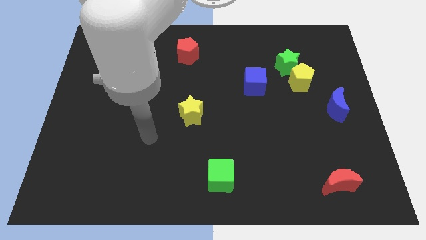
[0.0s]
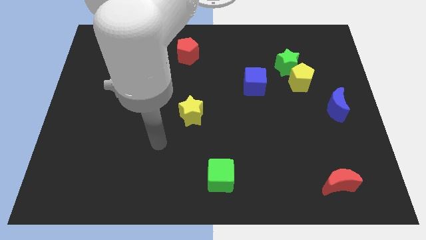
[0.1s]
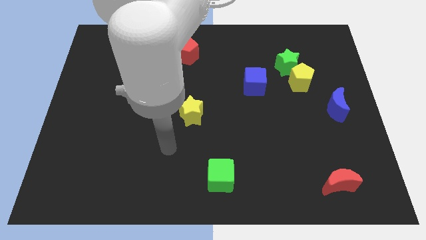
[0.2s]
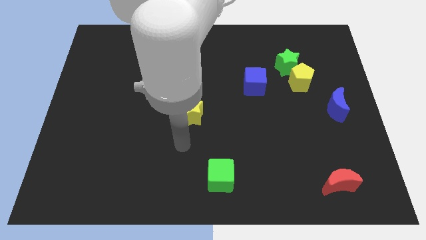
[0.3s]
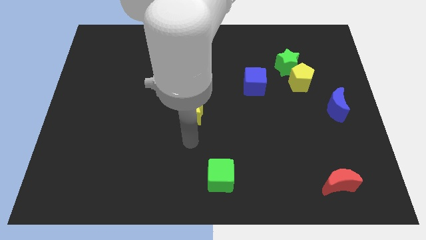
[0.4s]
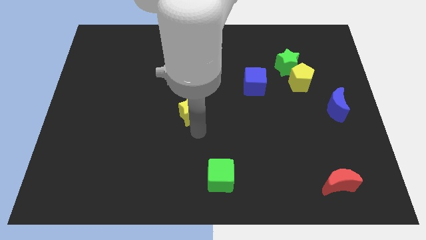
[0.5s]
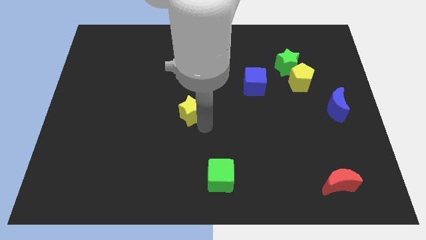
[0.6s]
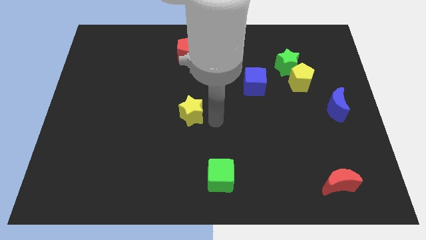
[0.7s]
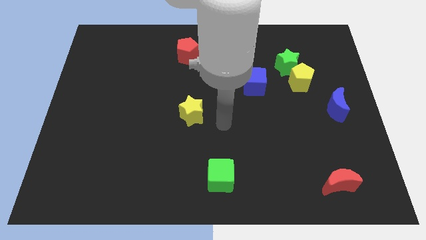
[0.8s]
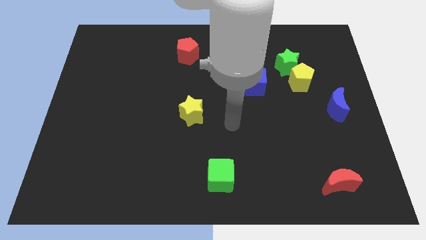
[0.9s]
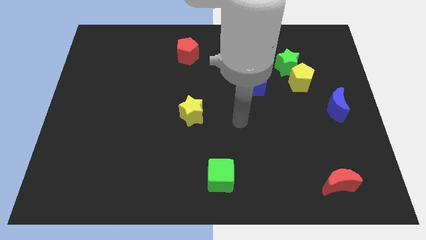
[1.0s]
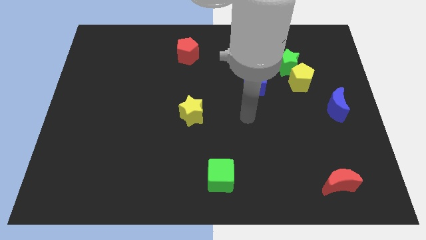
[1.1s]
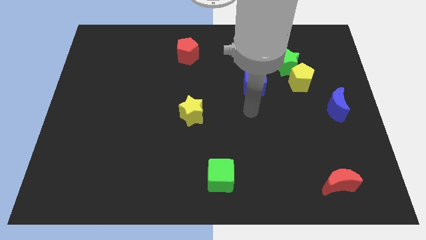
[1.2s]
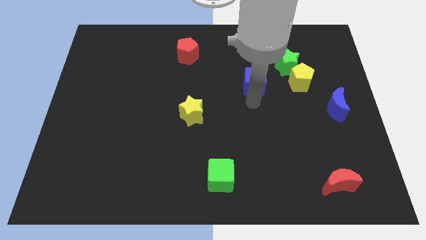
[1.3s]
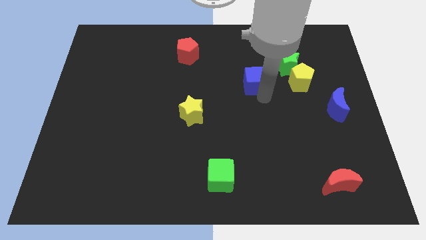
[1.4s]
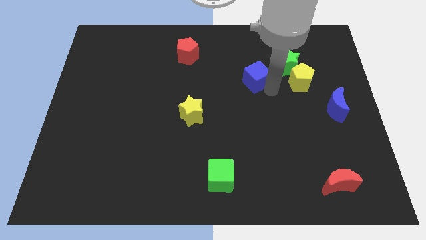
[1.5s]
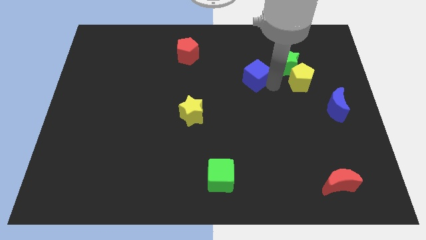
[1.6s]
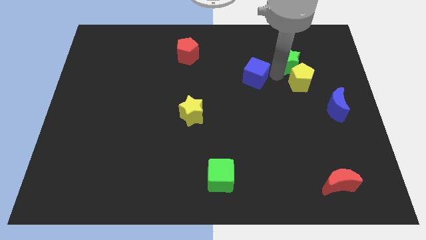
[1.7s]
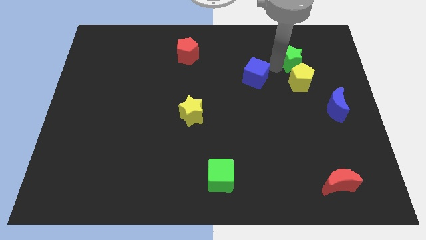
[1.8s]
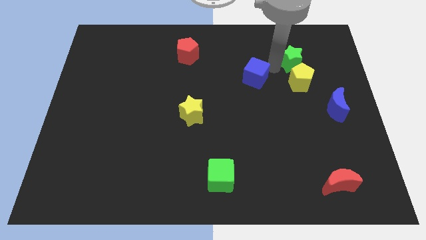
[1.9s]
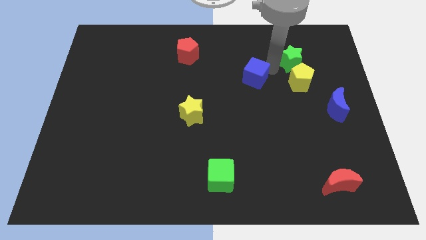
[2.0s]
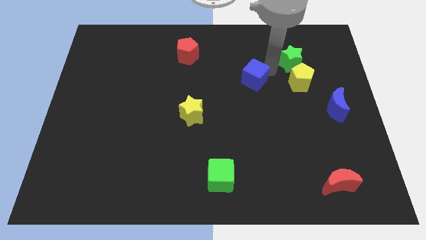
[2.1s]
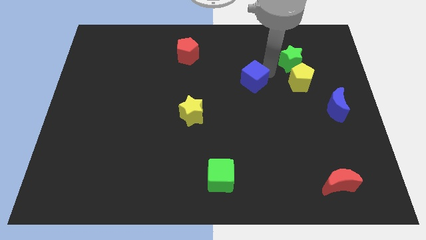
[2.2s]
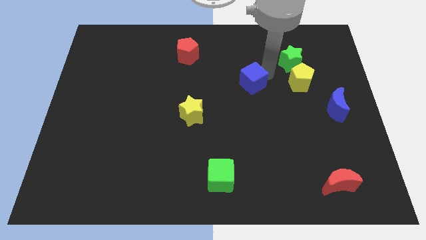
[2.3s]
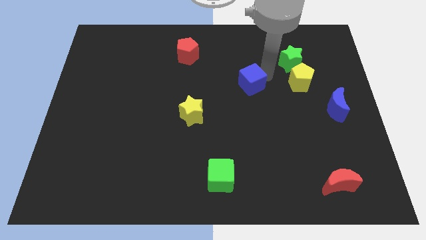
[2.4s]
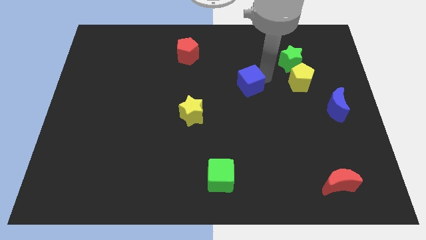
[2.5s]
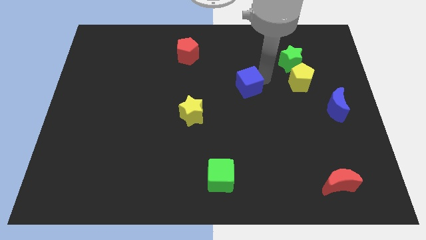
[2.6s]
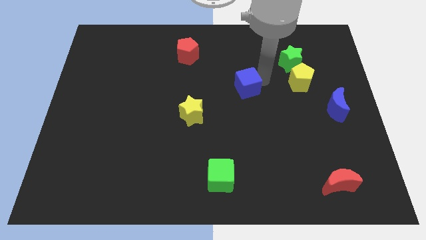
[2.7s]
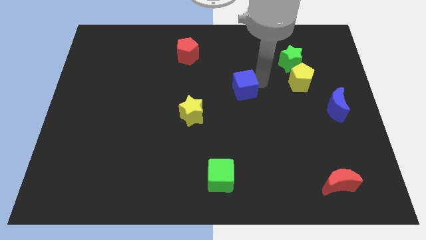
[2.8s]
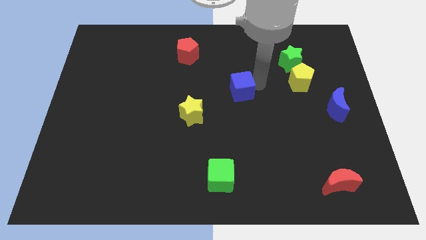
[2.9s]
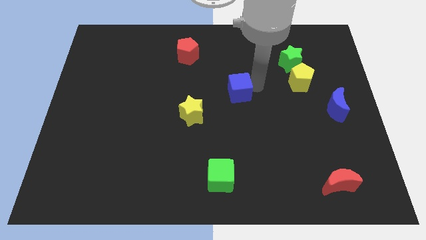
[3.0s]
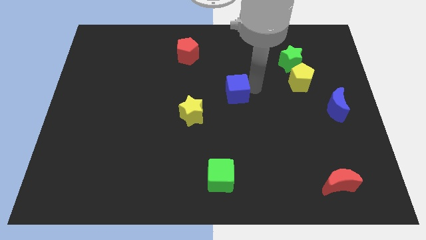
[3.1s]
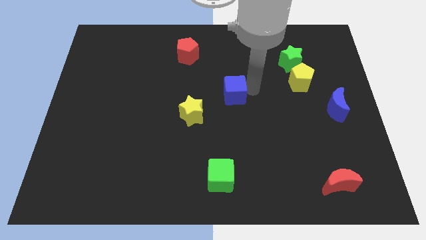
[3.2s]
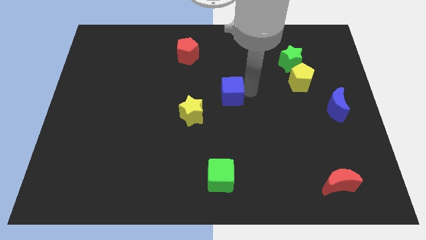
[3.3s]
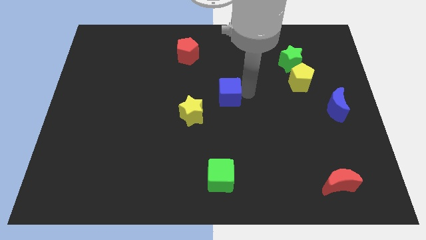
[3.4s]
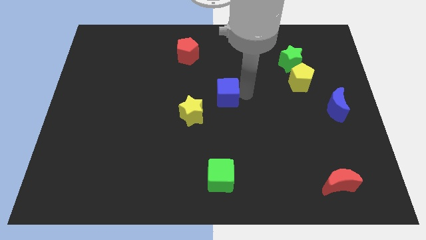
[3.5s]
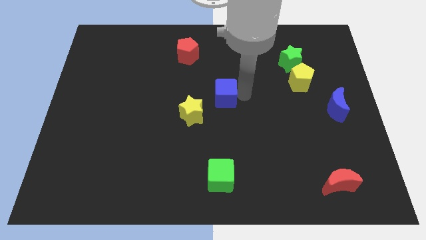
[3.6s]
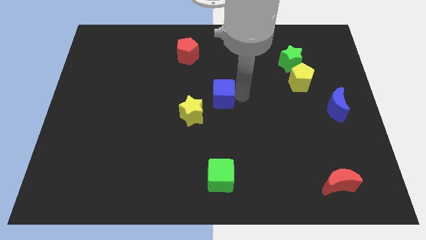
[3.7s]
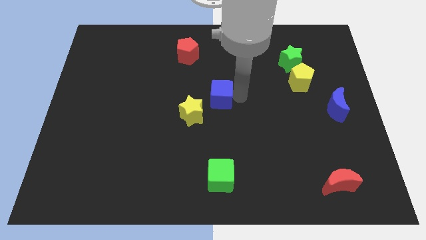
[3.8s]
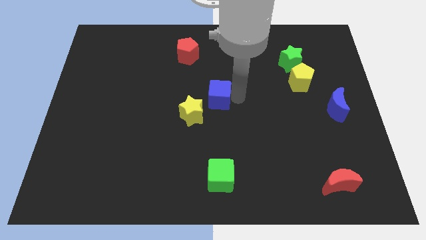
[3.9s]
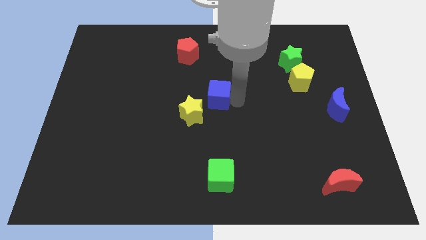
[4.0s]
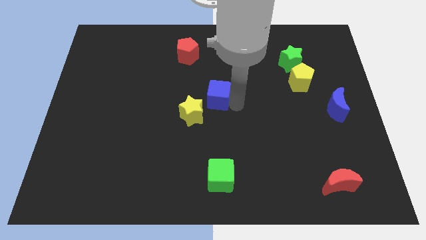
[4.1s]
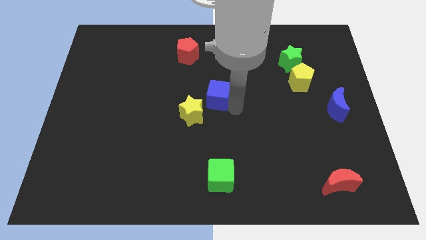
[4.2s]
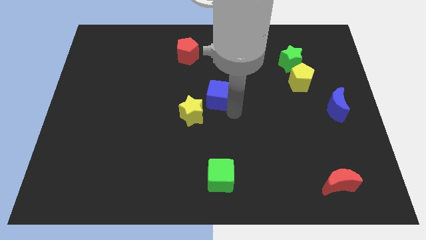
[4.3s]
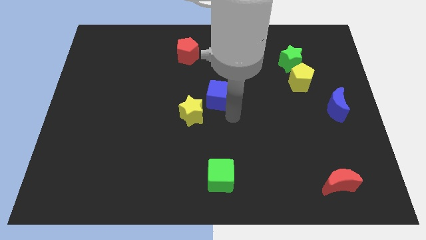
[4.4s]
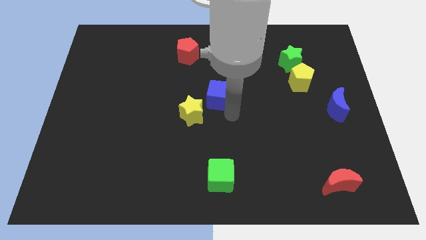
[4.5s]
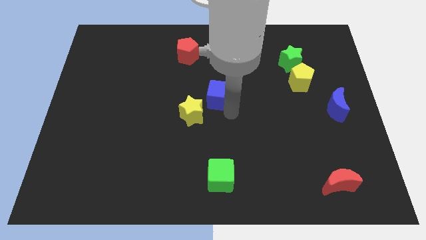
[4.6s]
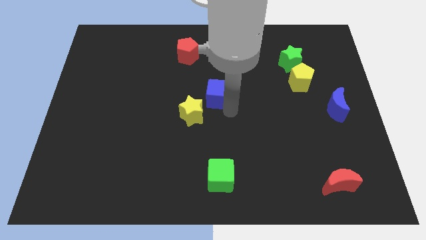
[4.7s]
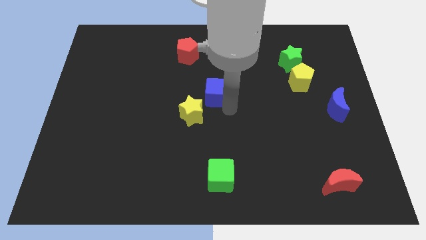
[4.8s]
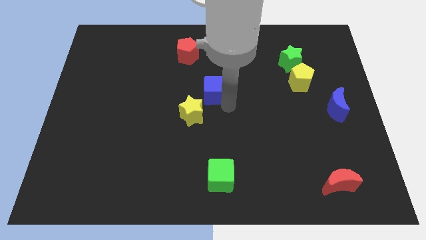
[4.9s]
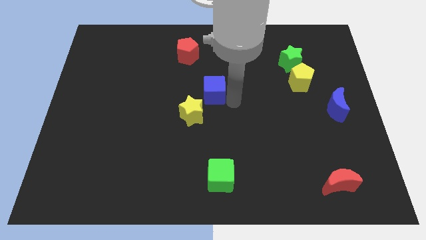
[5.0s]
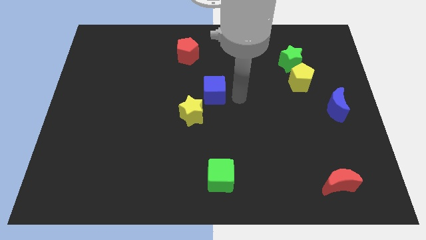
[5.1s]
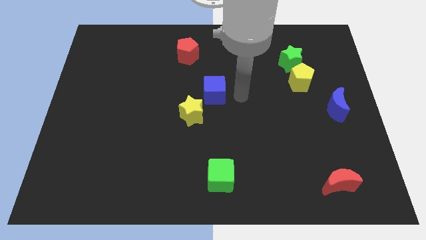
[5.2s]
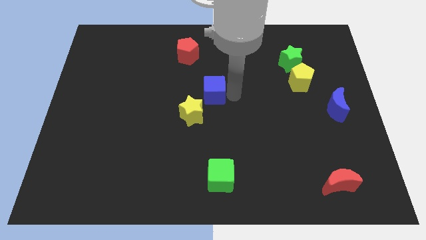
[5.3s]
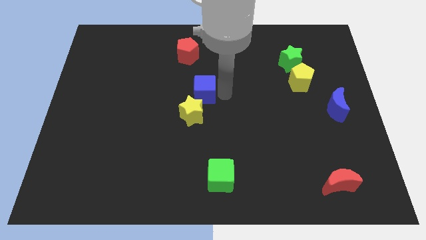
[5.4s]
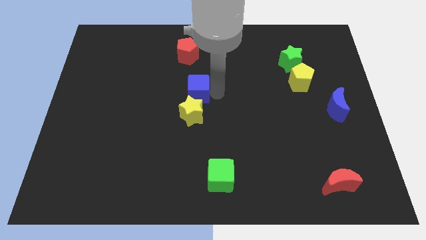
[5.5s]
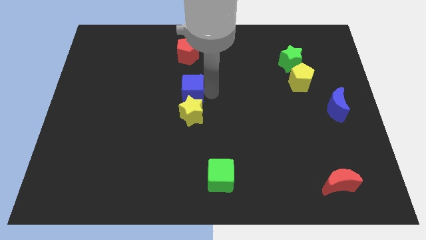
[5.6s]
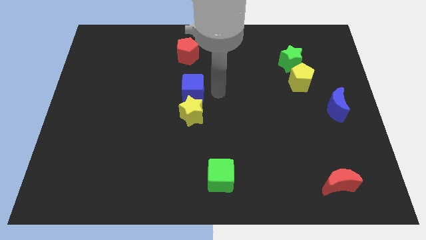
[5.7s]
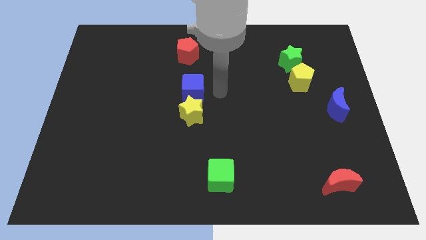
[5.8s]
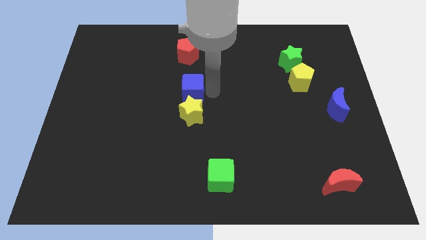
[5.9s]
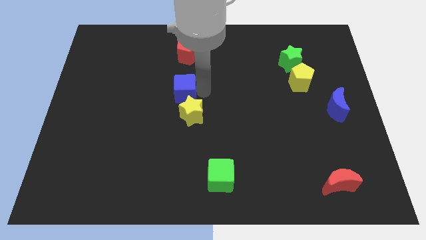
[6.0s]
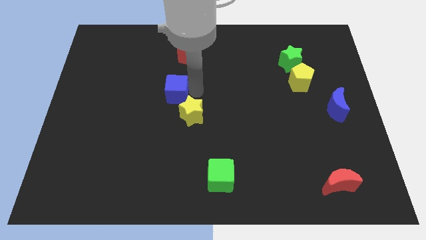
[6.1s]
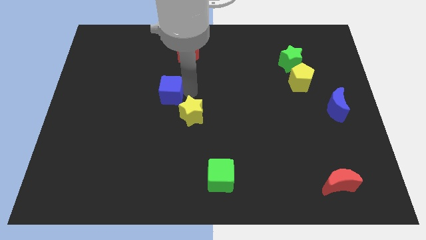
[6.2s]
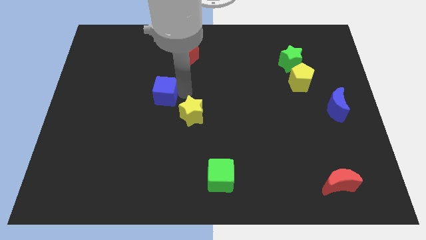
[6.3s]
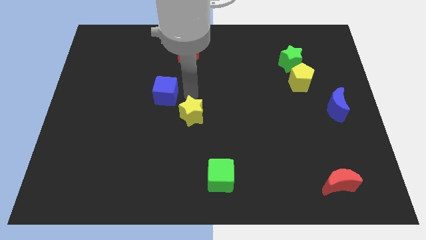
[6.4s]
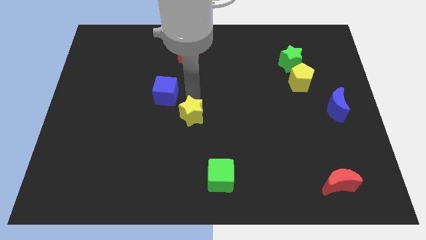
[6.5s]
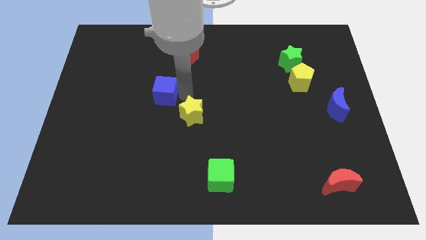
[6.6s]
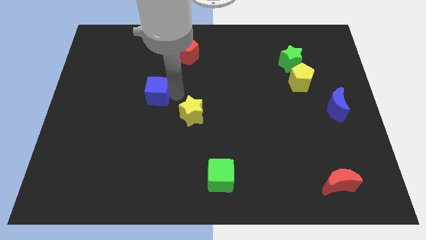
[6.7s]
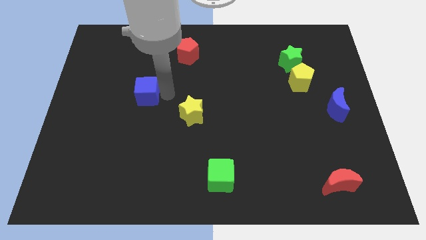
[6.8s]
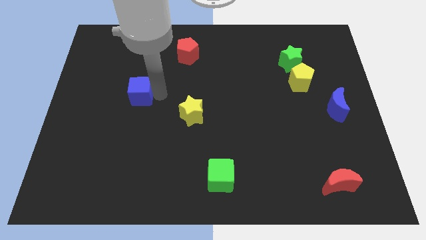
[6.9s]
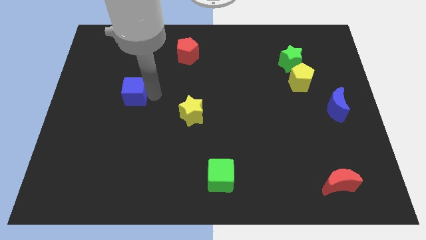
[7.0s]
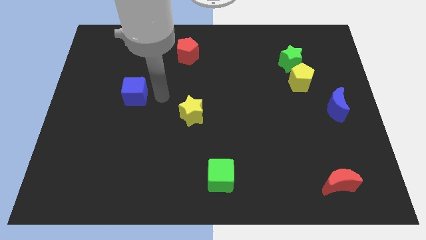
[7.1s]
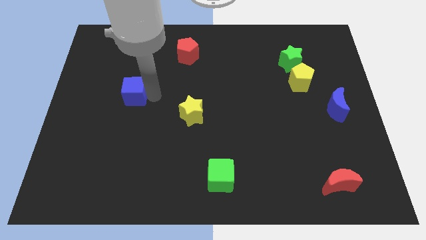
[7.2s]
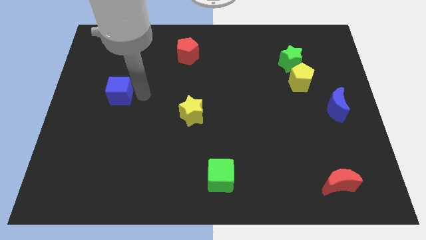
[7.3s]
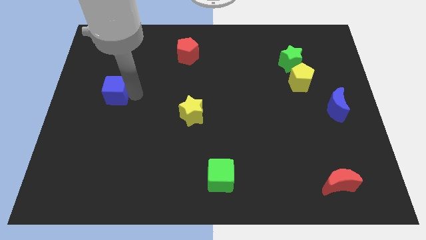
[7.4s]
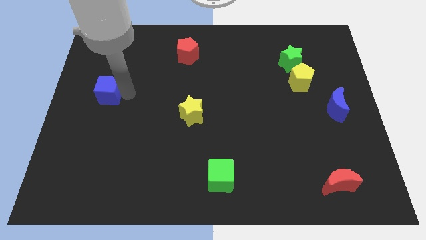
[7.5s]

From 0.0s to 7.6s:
move the blue cube to the center left
